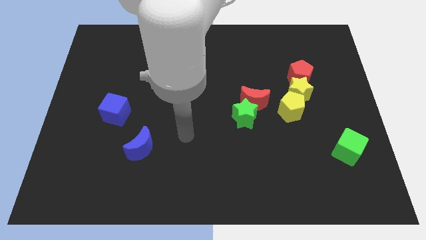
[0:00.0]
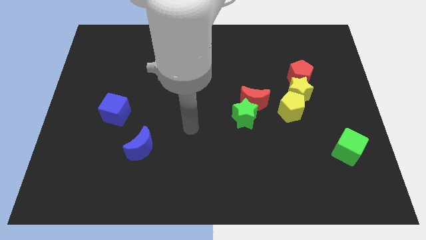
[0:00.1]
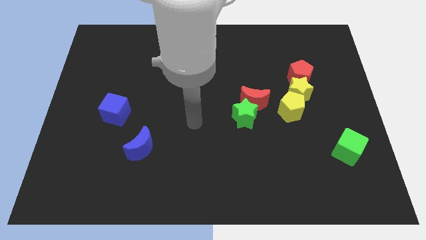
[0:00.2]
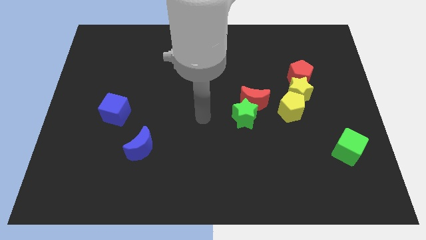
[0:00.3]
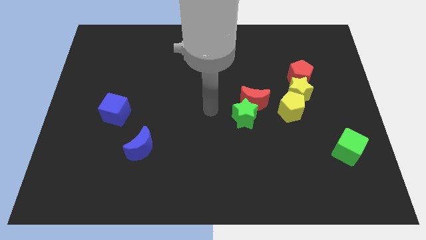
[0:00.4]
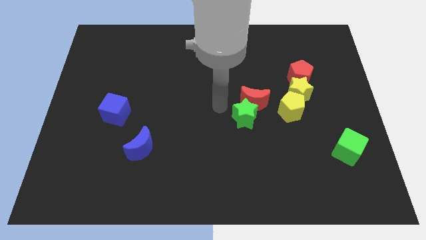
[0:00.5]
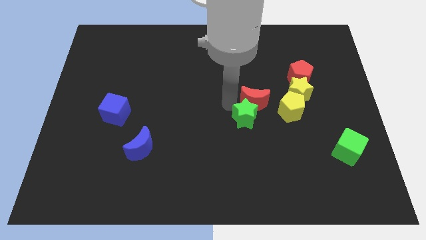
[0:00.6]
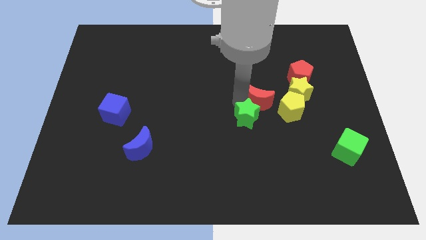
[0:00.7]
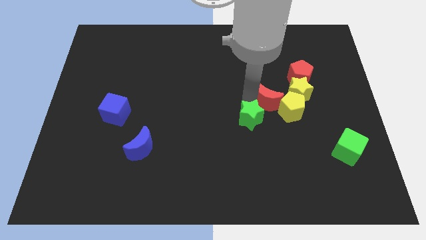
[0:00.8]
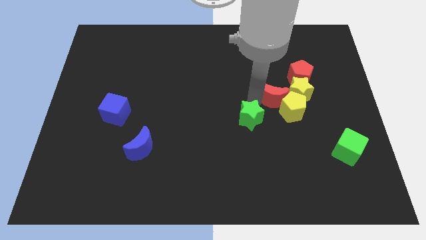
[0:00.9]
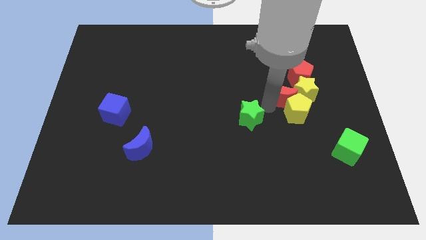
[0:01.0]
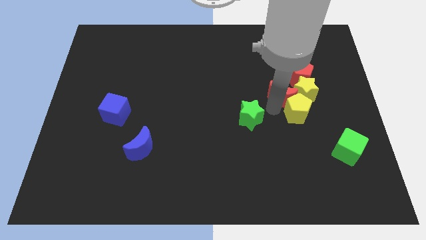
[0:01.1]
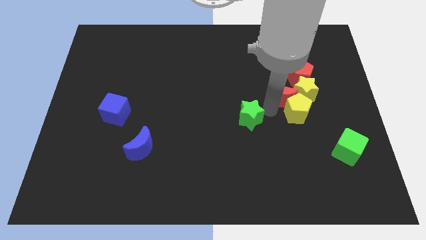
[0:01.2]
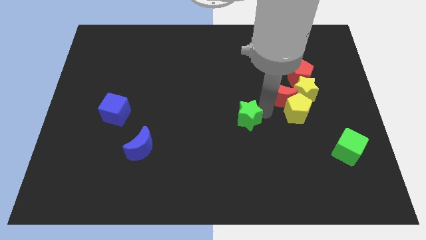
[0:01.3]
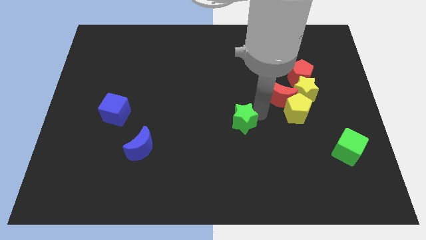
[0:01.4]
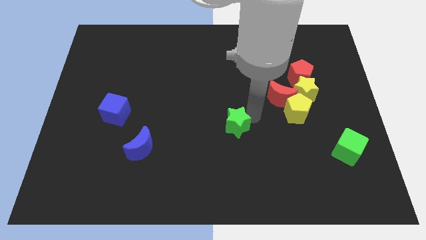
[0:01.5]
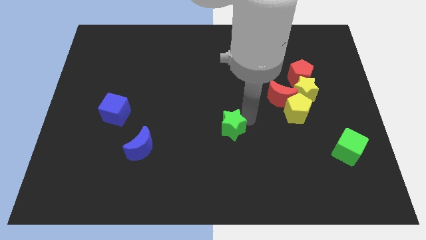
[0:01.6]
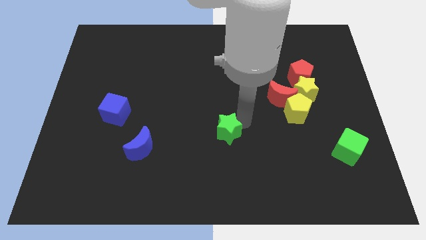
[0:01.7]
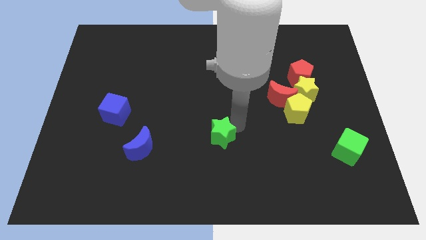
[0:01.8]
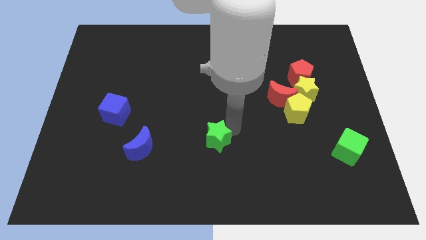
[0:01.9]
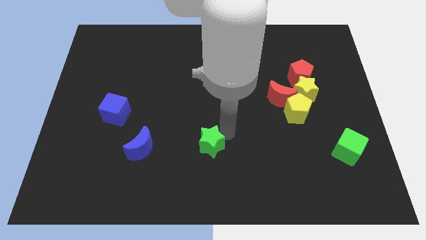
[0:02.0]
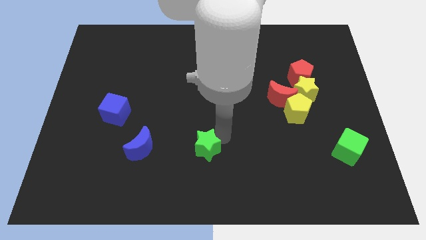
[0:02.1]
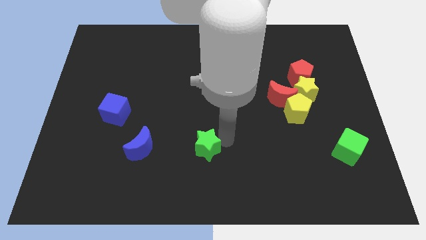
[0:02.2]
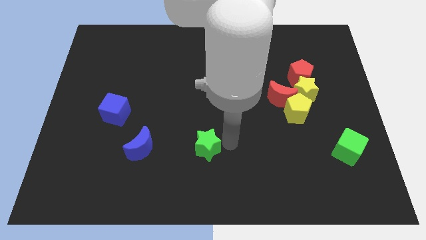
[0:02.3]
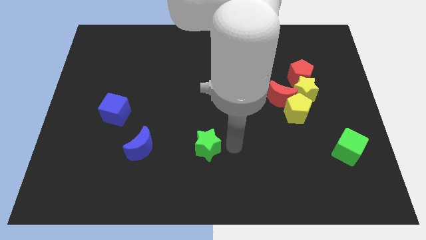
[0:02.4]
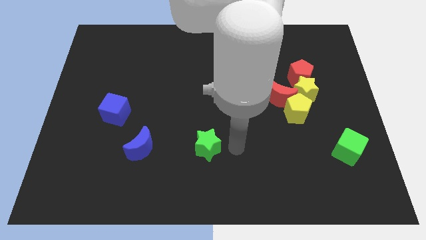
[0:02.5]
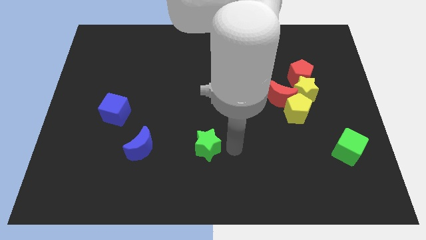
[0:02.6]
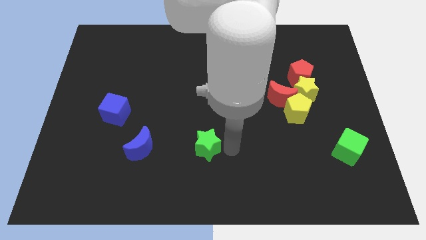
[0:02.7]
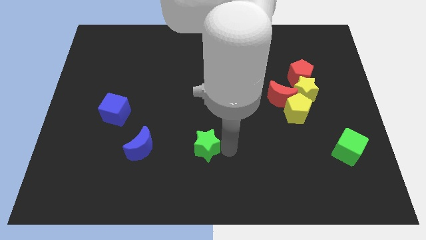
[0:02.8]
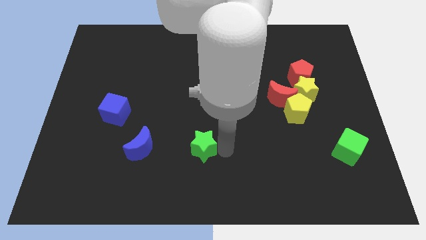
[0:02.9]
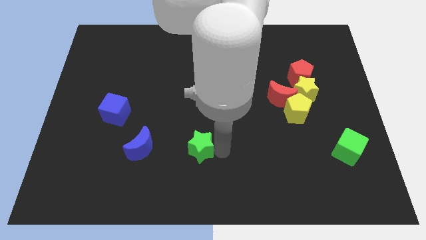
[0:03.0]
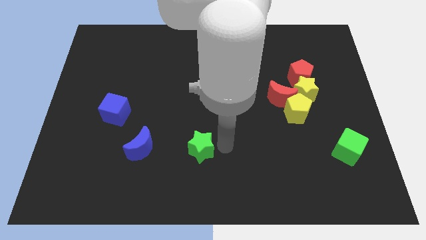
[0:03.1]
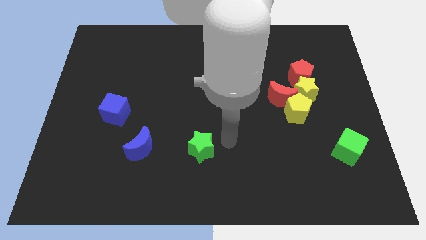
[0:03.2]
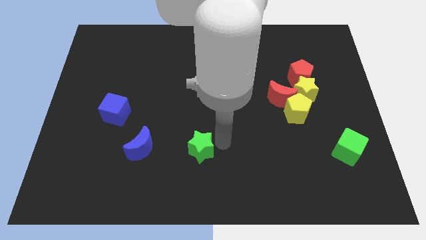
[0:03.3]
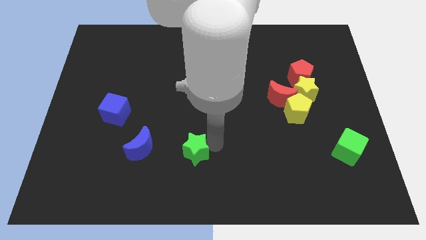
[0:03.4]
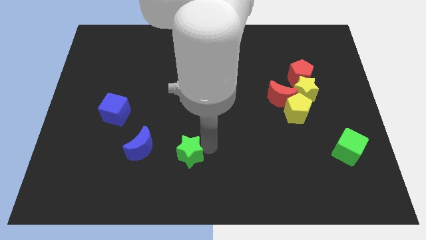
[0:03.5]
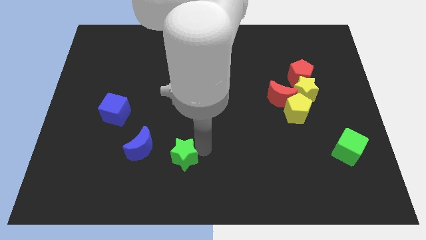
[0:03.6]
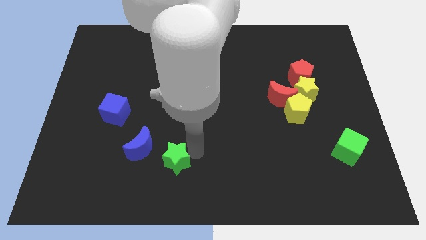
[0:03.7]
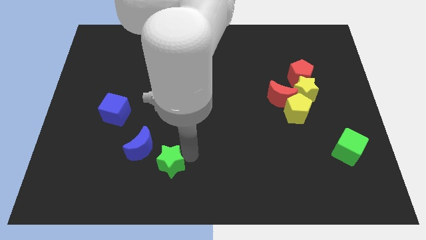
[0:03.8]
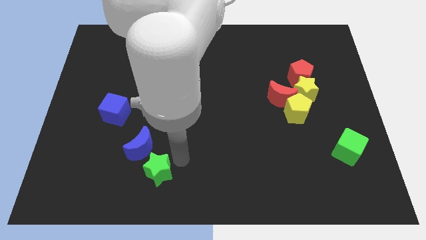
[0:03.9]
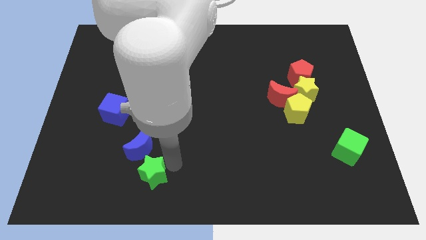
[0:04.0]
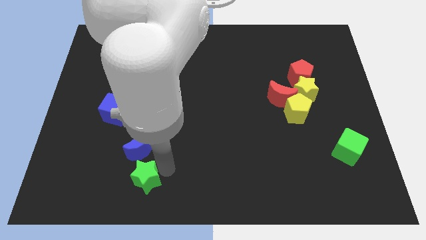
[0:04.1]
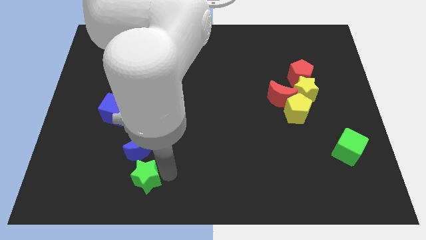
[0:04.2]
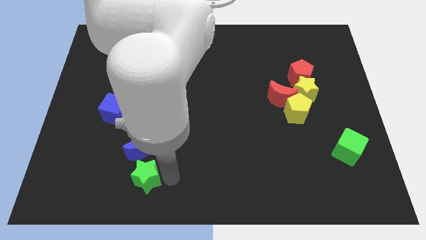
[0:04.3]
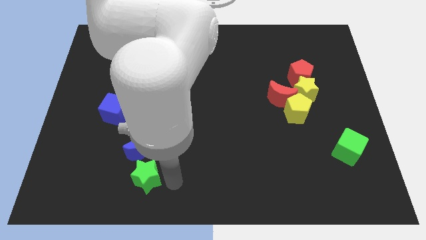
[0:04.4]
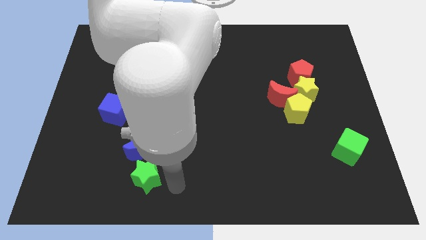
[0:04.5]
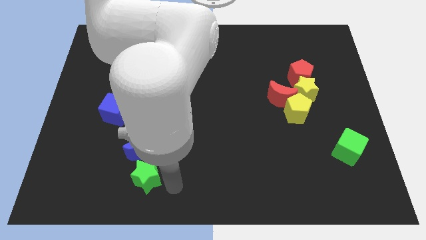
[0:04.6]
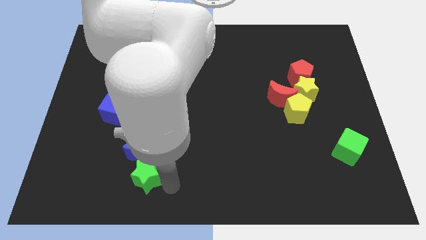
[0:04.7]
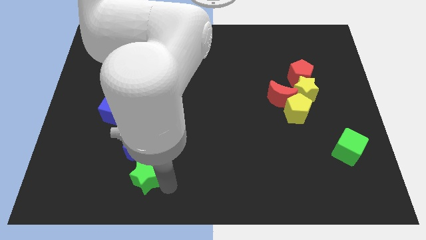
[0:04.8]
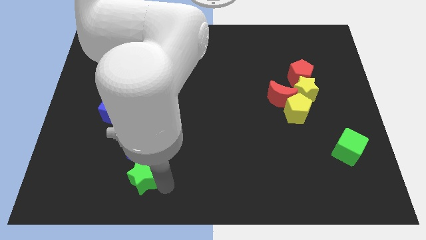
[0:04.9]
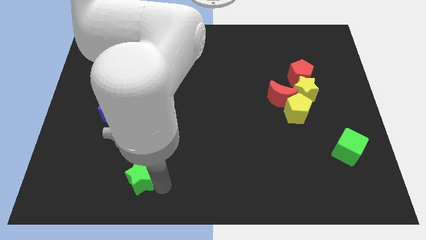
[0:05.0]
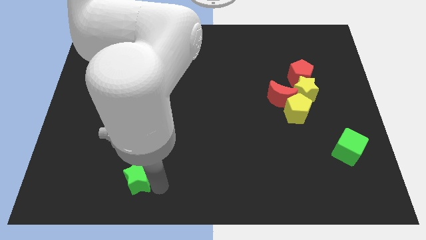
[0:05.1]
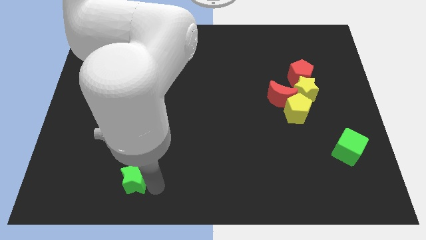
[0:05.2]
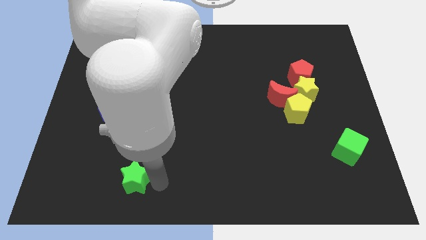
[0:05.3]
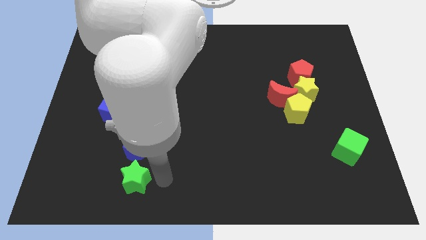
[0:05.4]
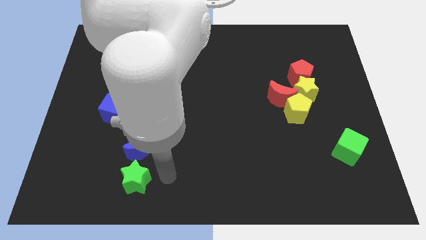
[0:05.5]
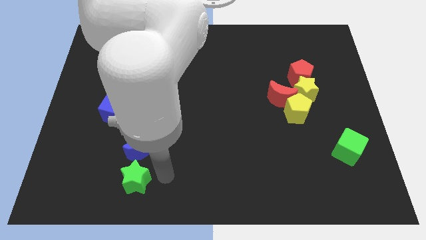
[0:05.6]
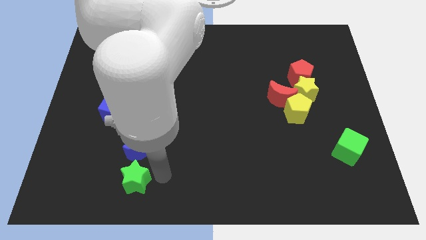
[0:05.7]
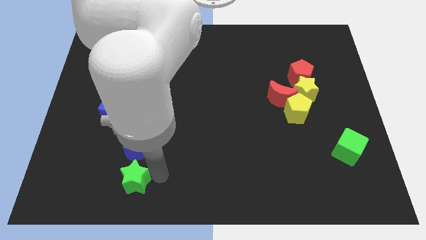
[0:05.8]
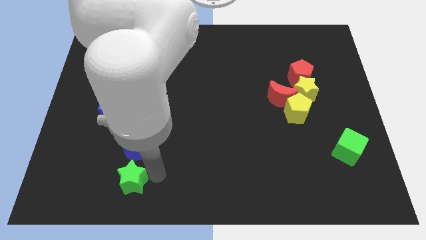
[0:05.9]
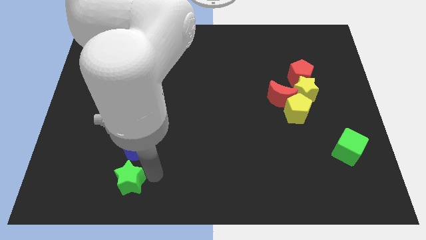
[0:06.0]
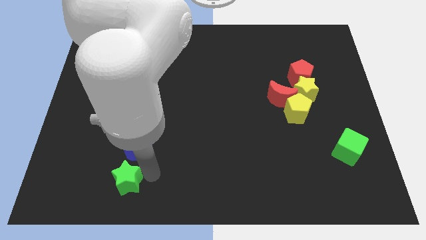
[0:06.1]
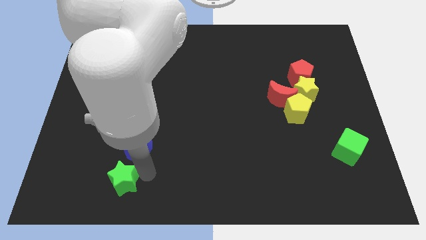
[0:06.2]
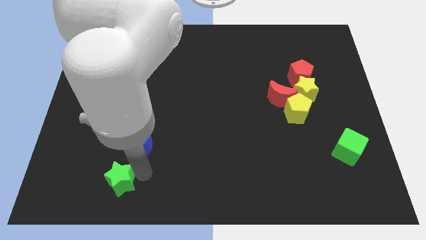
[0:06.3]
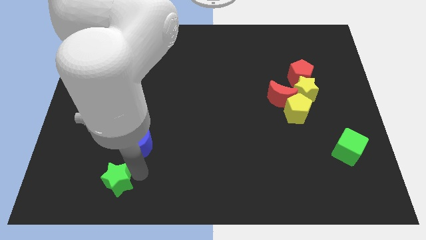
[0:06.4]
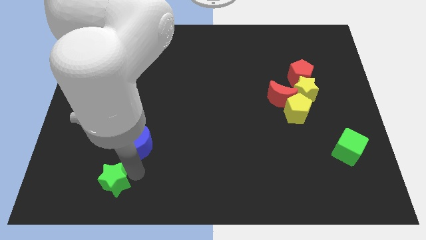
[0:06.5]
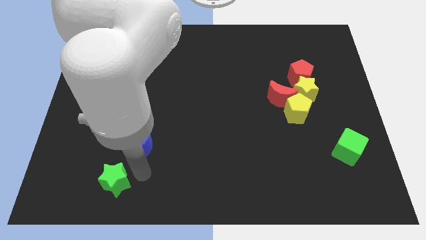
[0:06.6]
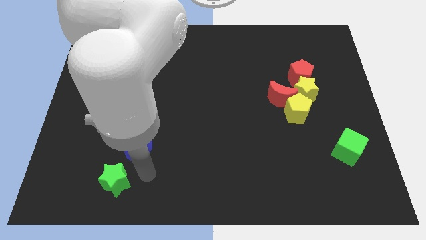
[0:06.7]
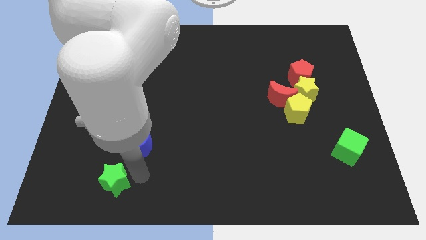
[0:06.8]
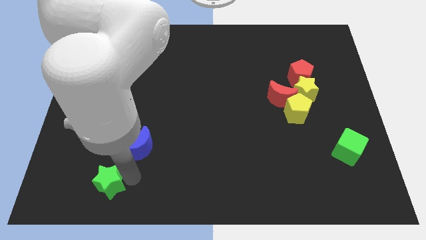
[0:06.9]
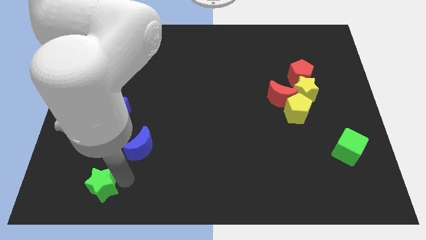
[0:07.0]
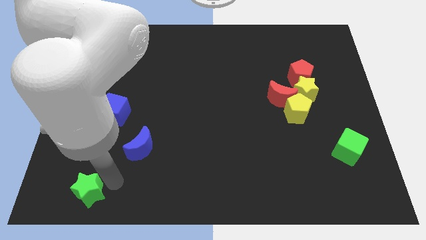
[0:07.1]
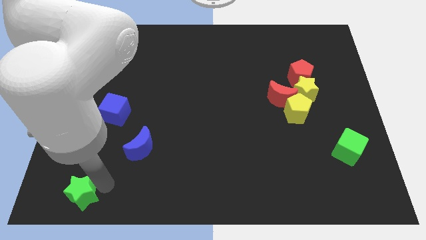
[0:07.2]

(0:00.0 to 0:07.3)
push the green star to the bottom left of the board
